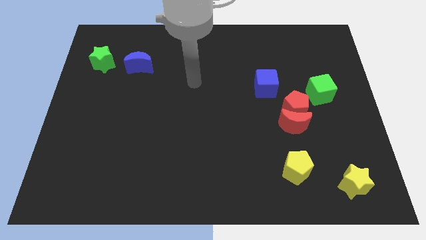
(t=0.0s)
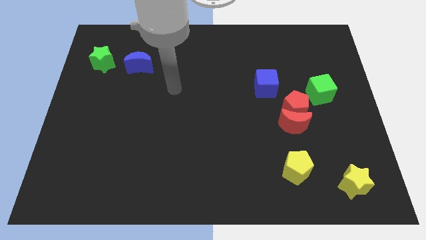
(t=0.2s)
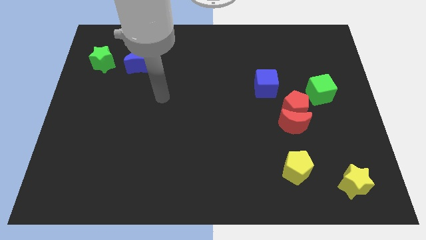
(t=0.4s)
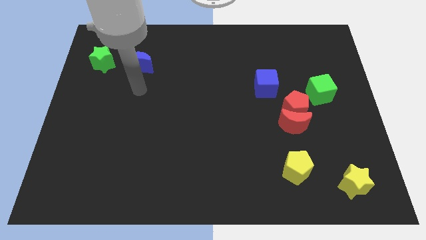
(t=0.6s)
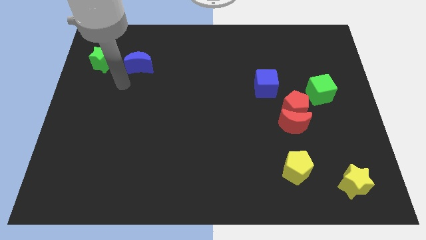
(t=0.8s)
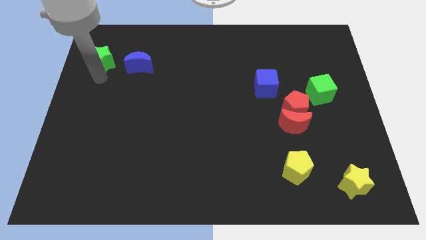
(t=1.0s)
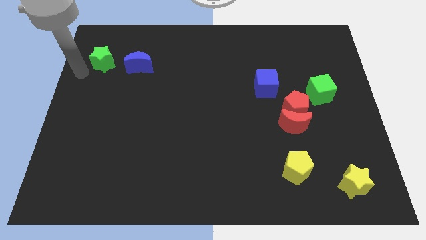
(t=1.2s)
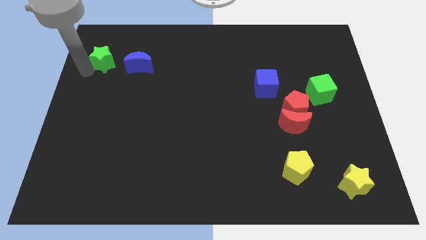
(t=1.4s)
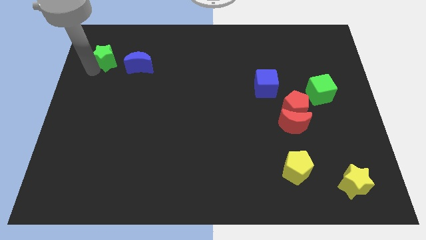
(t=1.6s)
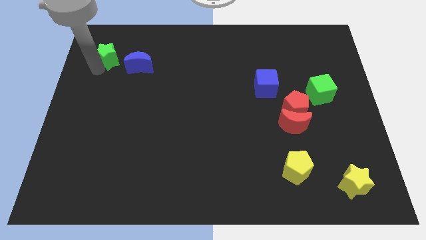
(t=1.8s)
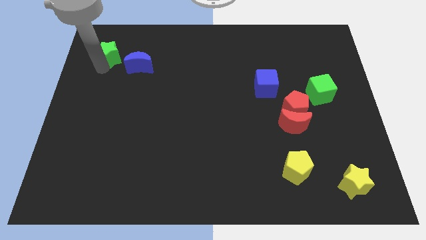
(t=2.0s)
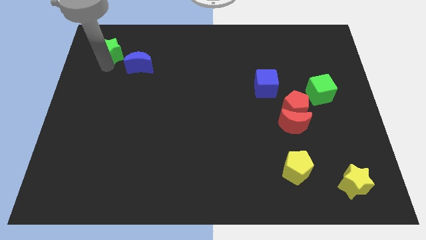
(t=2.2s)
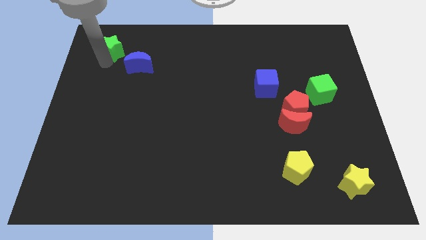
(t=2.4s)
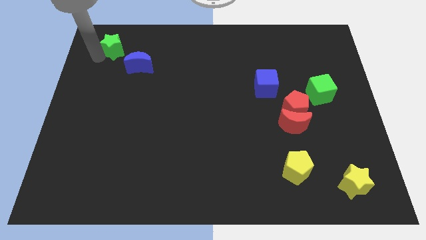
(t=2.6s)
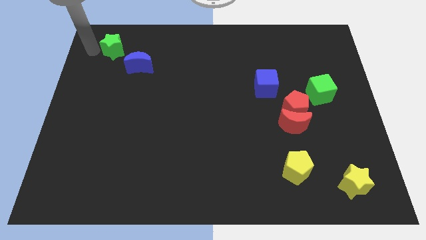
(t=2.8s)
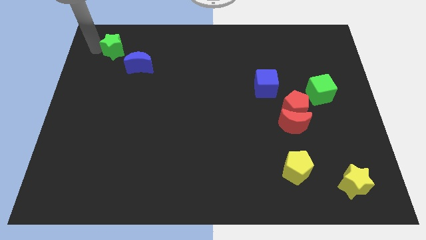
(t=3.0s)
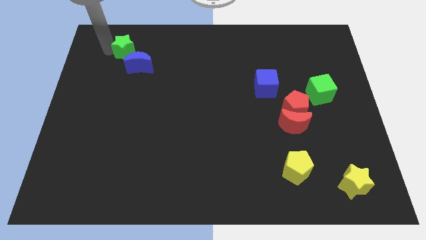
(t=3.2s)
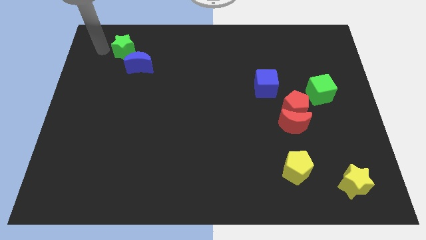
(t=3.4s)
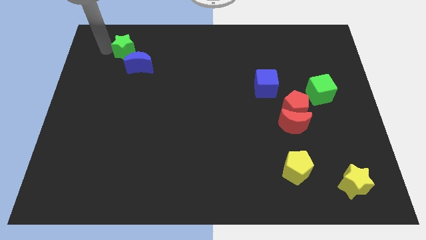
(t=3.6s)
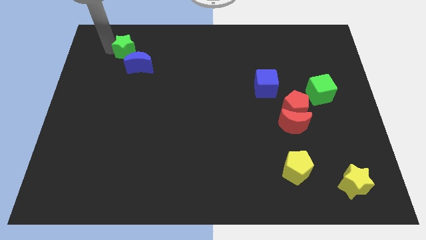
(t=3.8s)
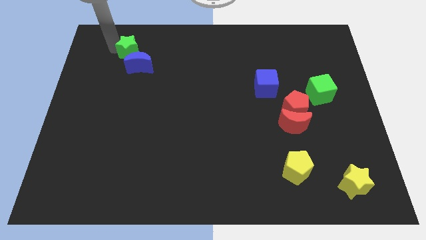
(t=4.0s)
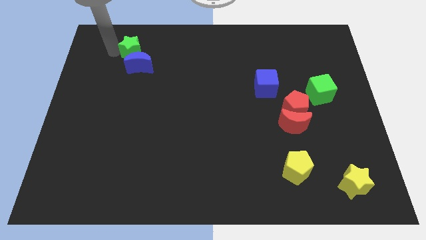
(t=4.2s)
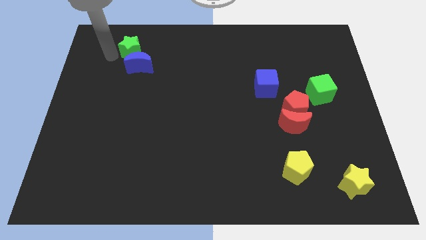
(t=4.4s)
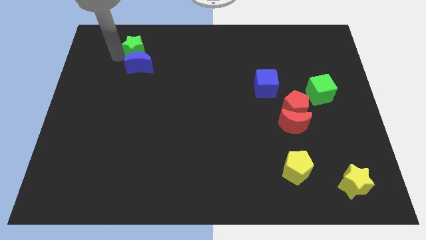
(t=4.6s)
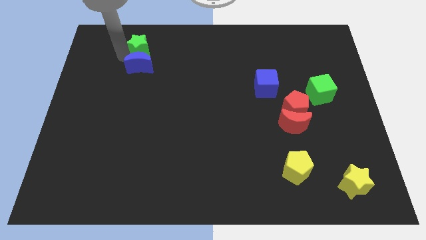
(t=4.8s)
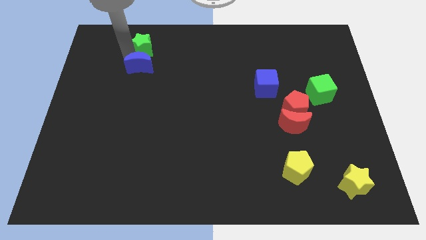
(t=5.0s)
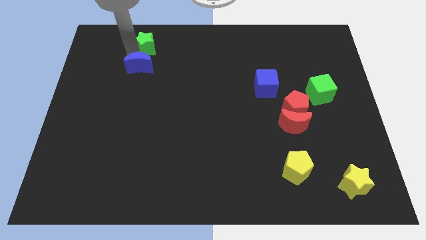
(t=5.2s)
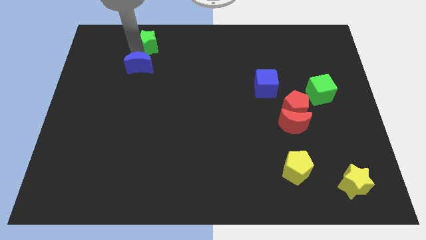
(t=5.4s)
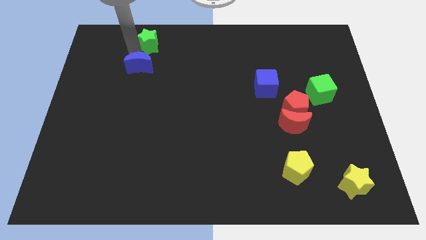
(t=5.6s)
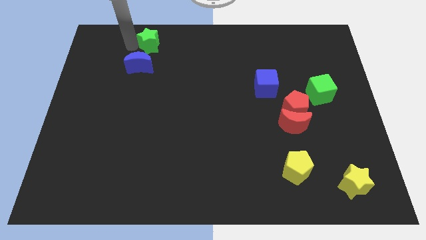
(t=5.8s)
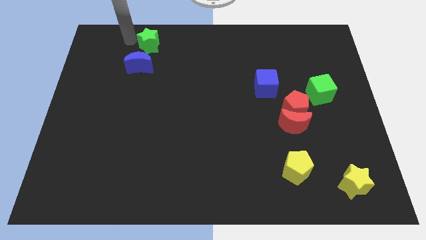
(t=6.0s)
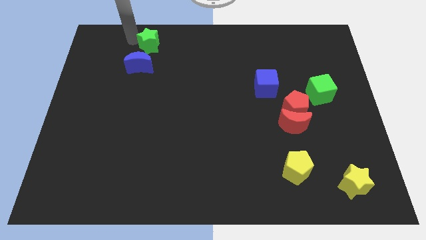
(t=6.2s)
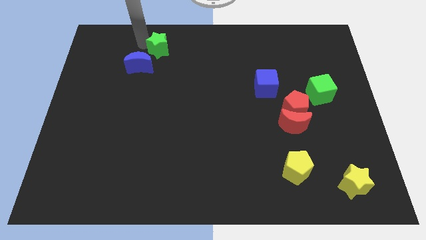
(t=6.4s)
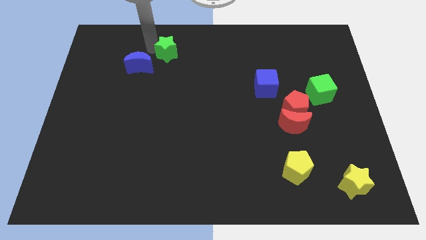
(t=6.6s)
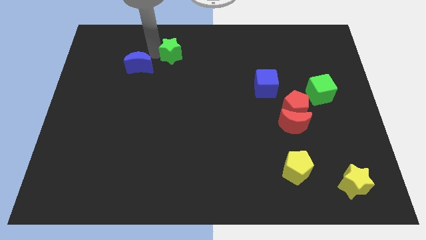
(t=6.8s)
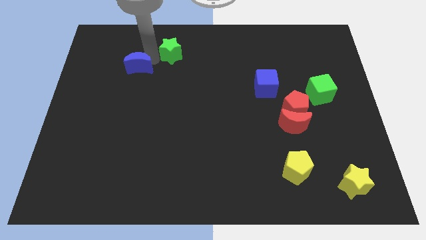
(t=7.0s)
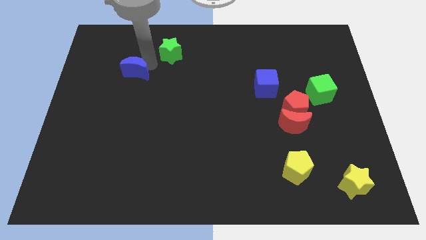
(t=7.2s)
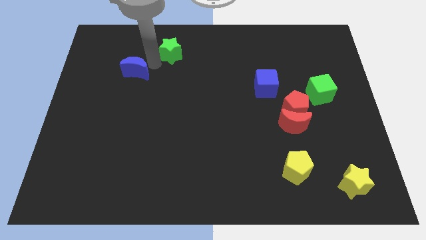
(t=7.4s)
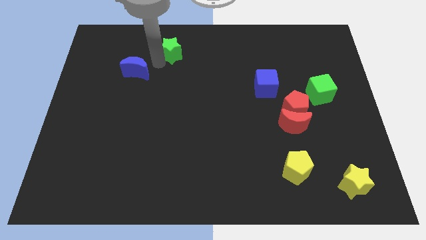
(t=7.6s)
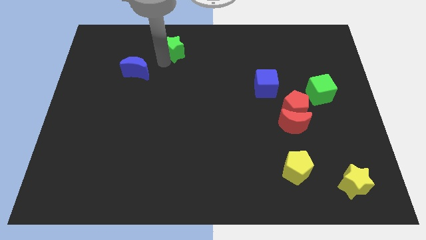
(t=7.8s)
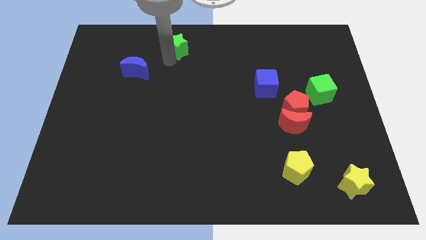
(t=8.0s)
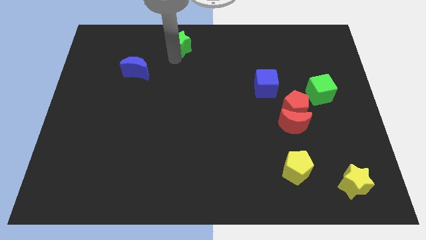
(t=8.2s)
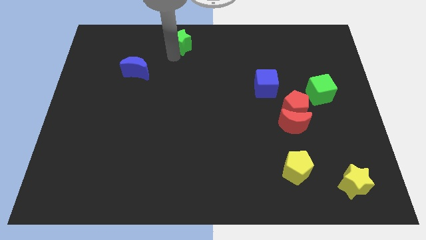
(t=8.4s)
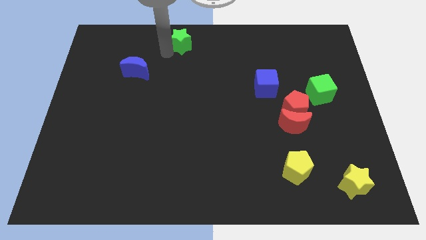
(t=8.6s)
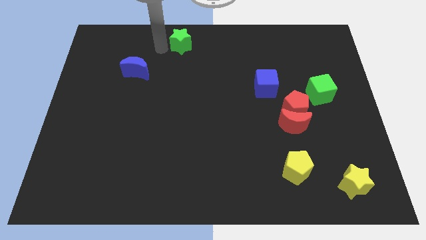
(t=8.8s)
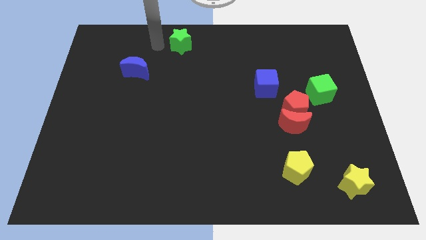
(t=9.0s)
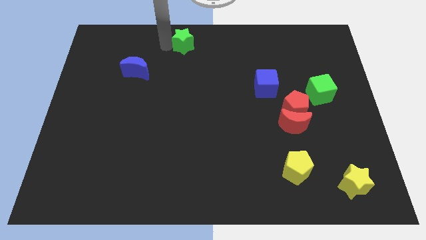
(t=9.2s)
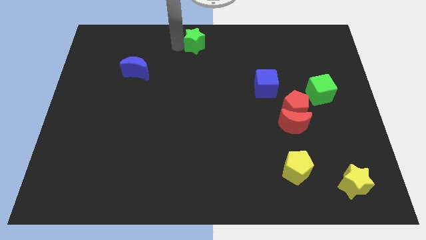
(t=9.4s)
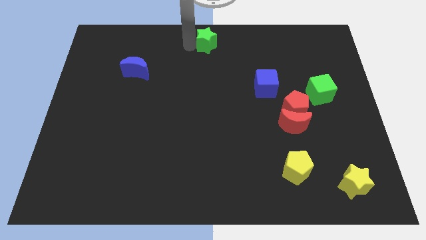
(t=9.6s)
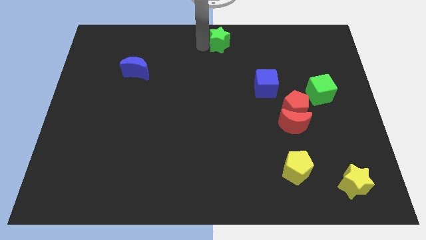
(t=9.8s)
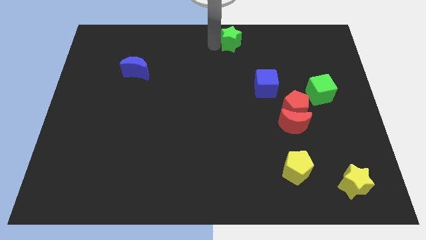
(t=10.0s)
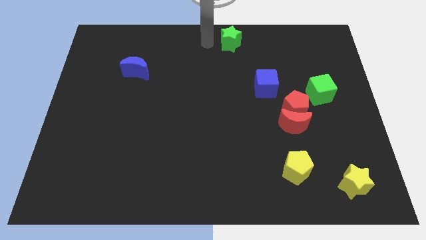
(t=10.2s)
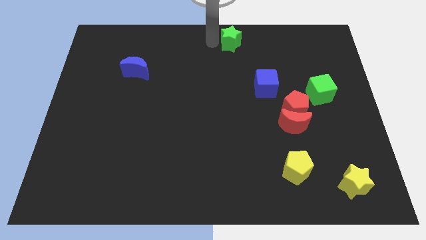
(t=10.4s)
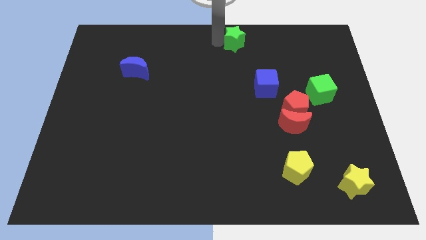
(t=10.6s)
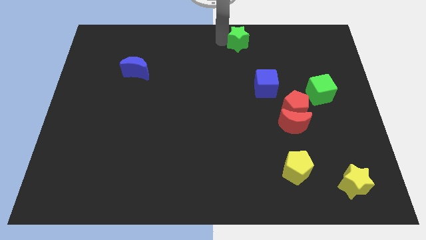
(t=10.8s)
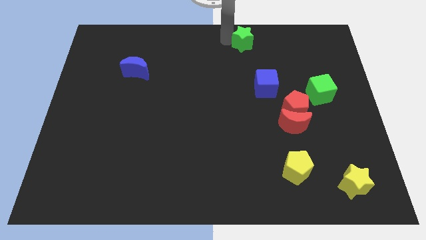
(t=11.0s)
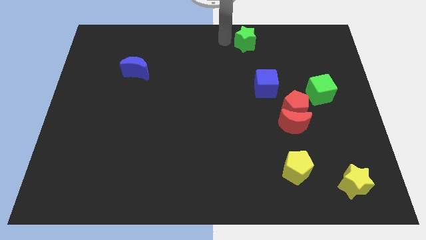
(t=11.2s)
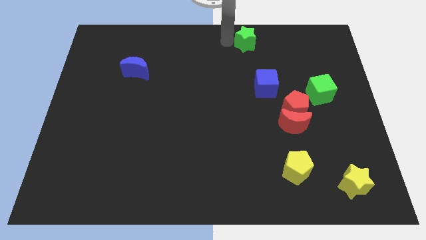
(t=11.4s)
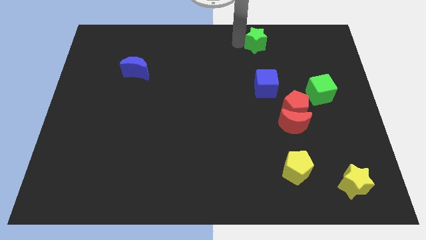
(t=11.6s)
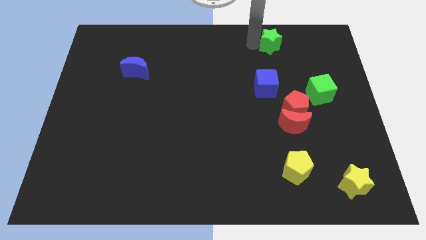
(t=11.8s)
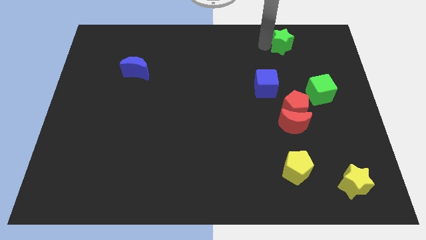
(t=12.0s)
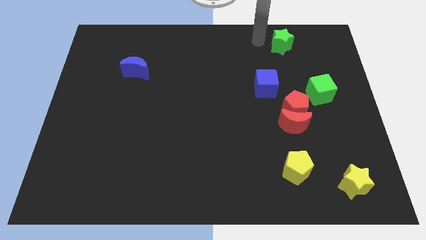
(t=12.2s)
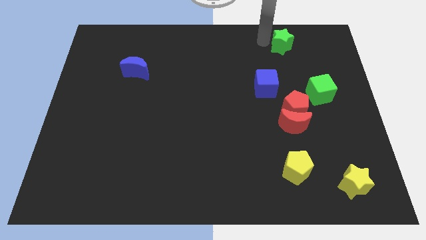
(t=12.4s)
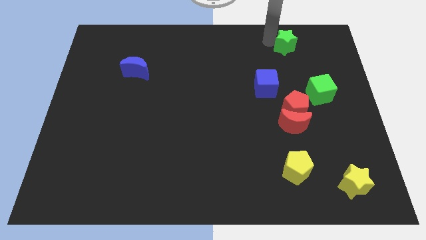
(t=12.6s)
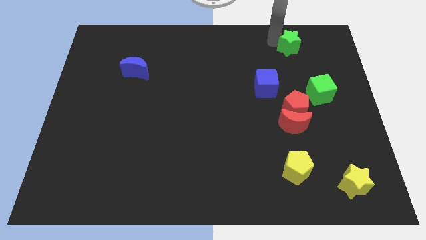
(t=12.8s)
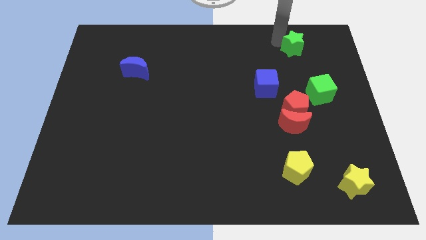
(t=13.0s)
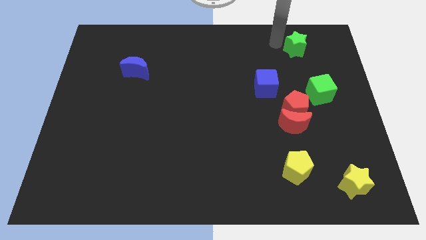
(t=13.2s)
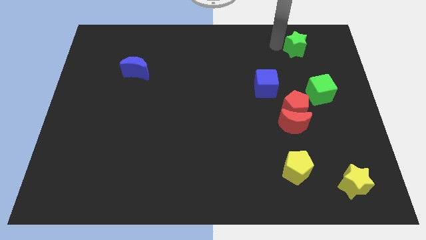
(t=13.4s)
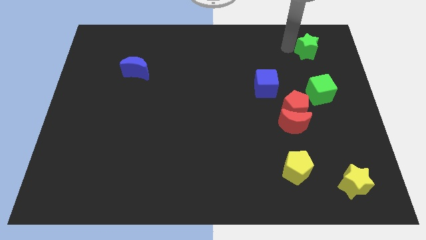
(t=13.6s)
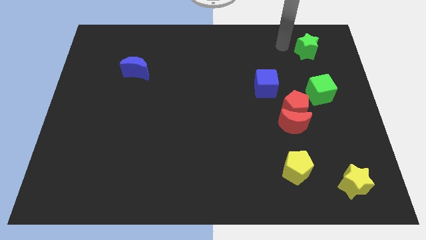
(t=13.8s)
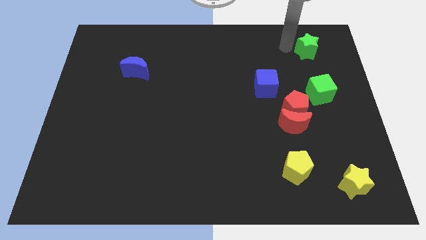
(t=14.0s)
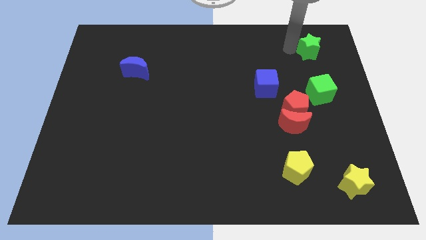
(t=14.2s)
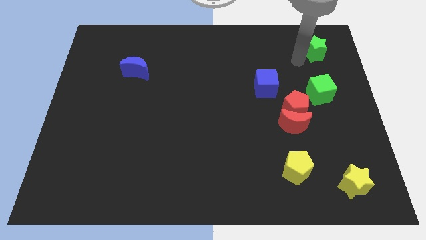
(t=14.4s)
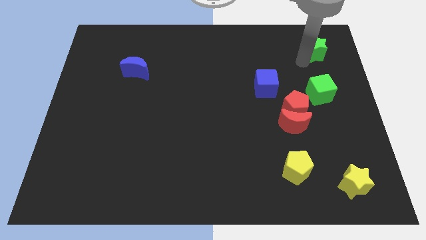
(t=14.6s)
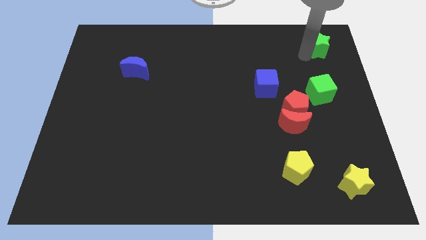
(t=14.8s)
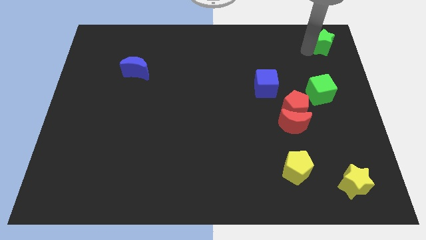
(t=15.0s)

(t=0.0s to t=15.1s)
put the green star to the top right of the board
